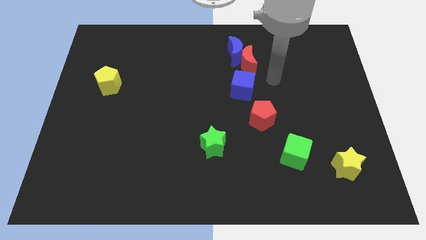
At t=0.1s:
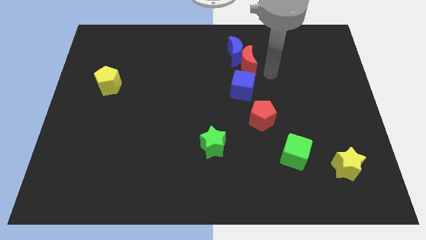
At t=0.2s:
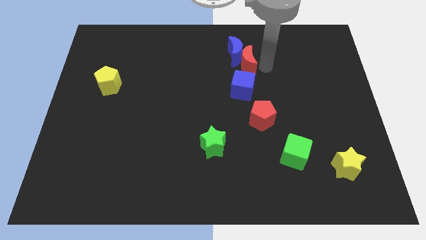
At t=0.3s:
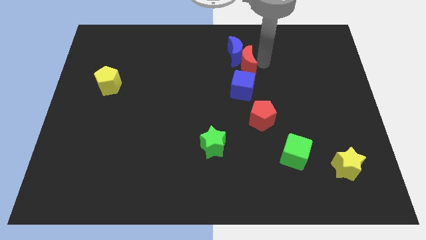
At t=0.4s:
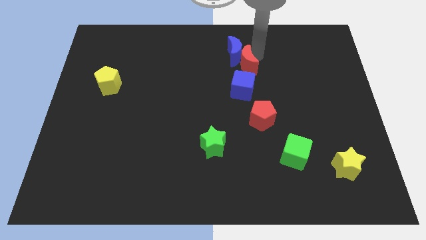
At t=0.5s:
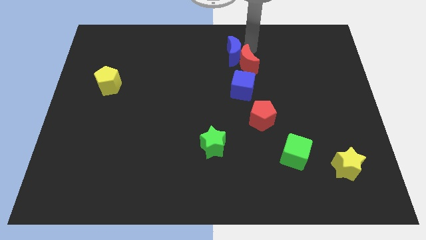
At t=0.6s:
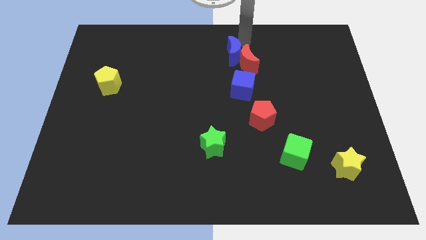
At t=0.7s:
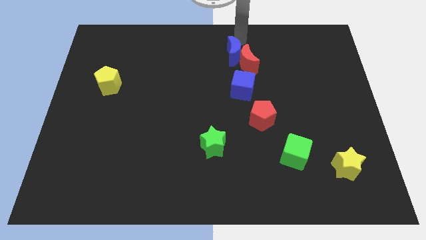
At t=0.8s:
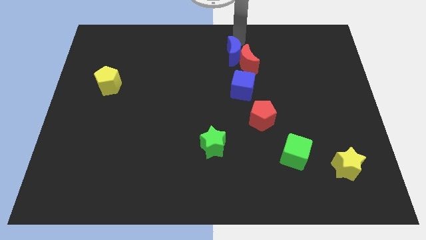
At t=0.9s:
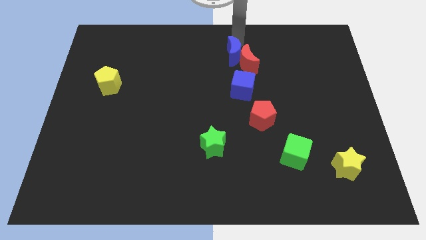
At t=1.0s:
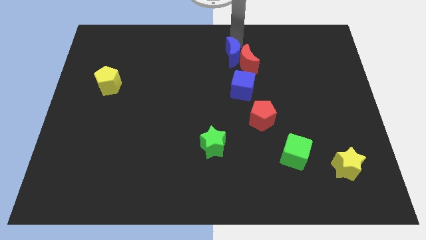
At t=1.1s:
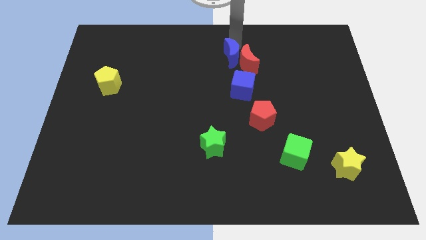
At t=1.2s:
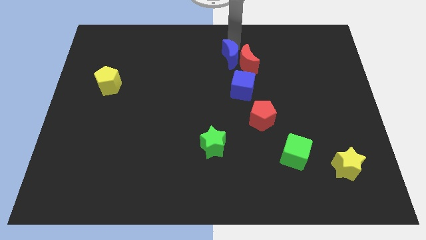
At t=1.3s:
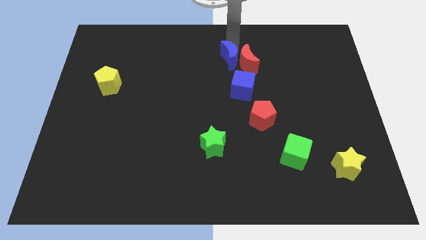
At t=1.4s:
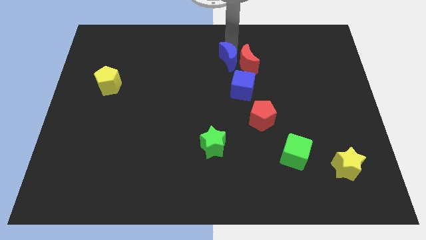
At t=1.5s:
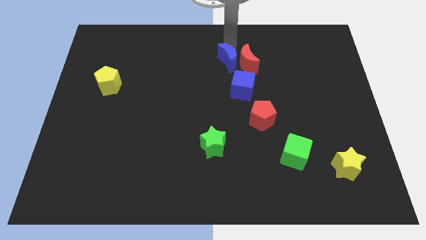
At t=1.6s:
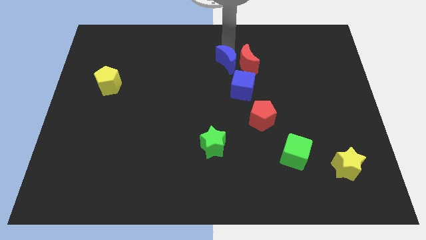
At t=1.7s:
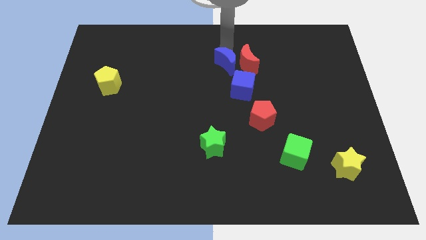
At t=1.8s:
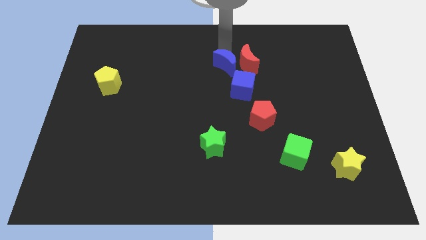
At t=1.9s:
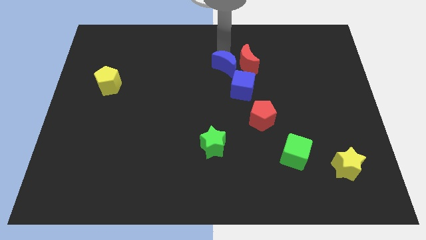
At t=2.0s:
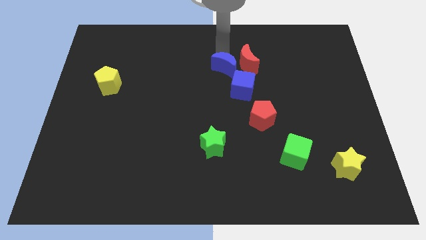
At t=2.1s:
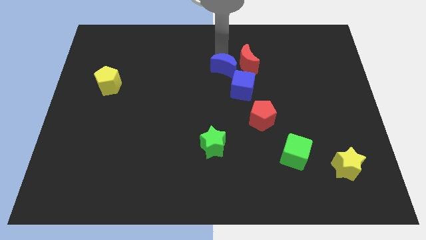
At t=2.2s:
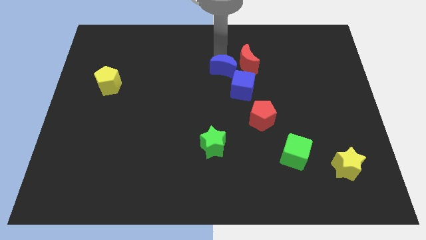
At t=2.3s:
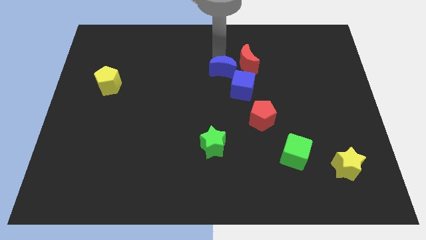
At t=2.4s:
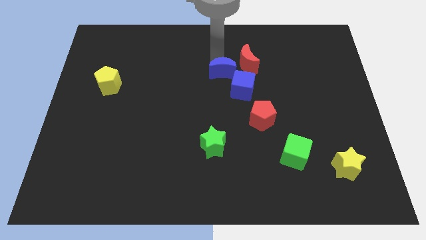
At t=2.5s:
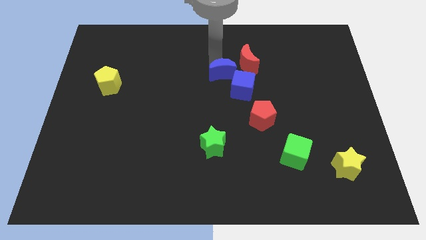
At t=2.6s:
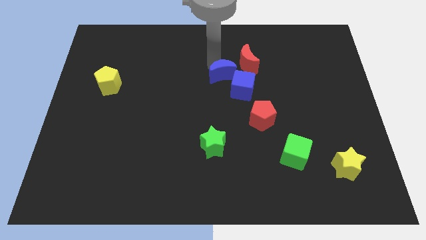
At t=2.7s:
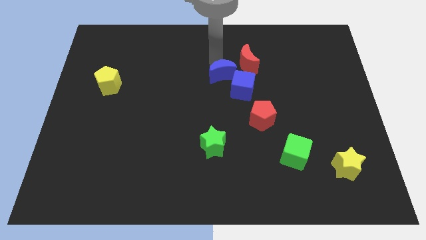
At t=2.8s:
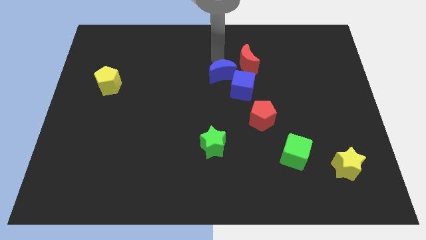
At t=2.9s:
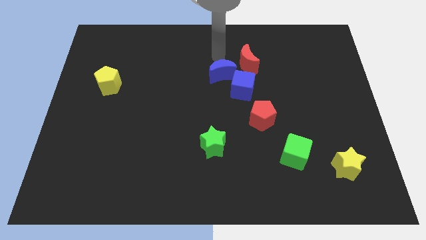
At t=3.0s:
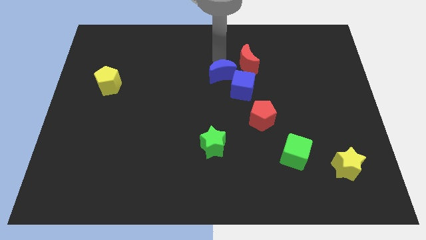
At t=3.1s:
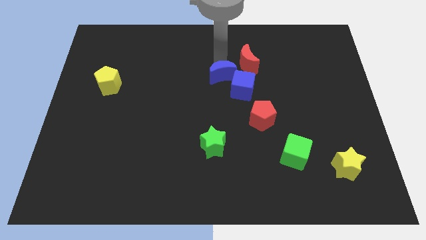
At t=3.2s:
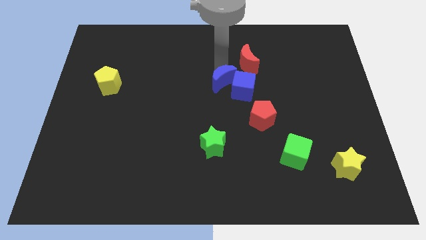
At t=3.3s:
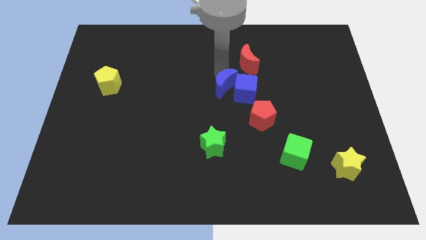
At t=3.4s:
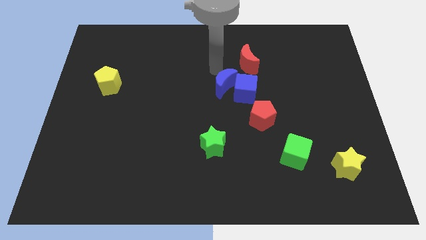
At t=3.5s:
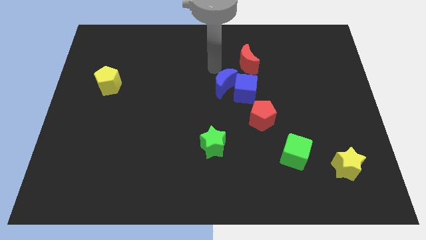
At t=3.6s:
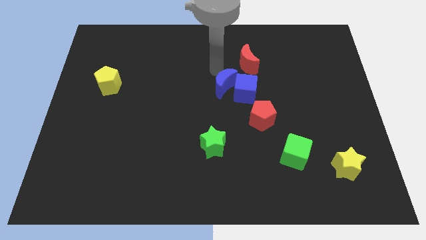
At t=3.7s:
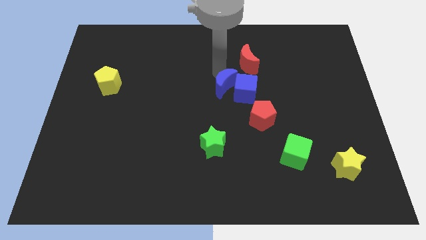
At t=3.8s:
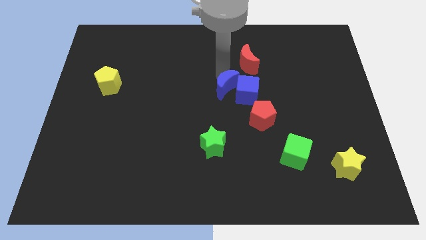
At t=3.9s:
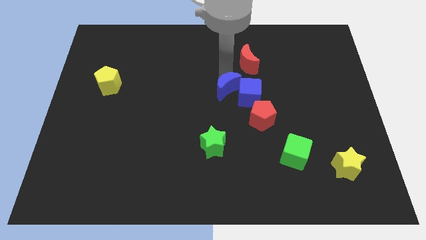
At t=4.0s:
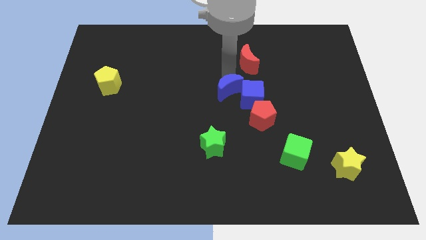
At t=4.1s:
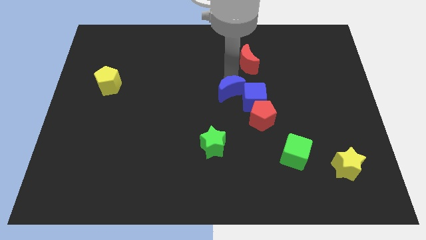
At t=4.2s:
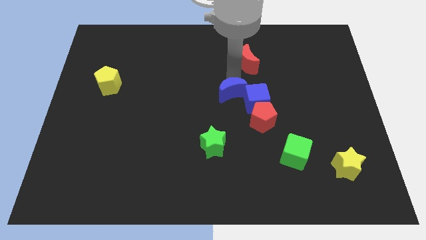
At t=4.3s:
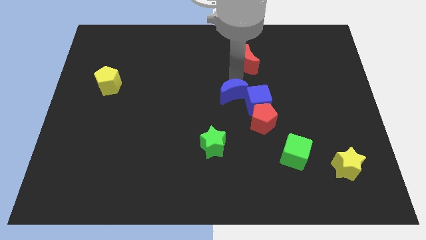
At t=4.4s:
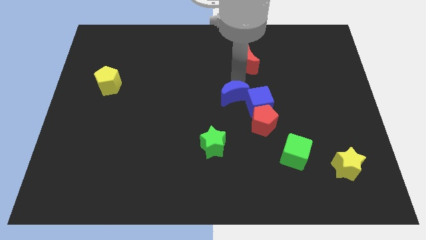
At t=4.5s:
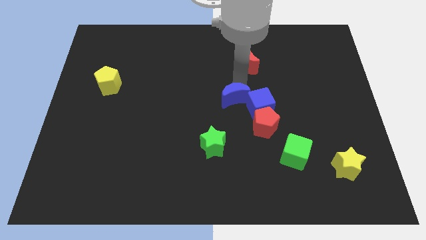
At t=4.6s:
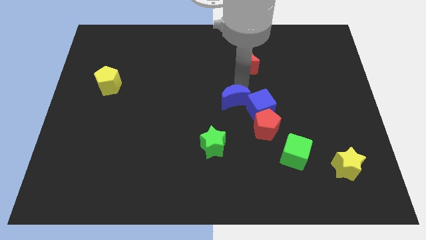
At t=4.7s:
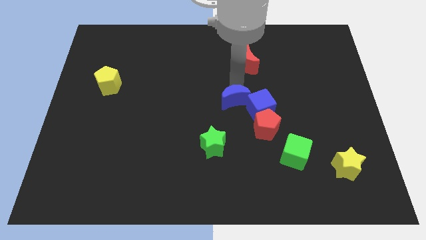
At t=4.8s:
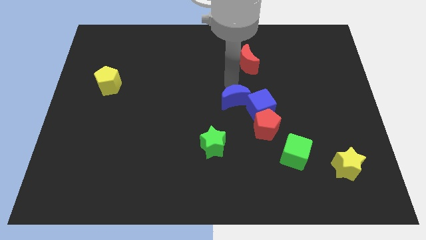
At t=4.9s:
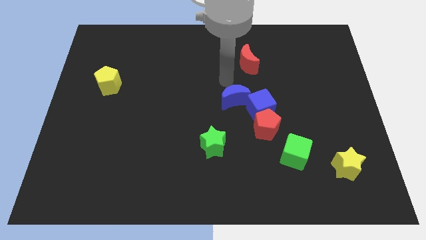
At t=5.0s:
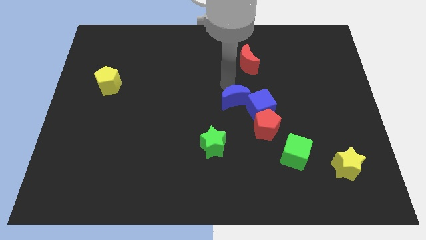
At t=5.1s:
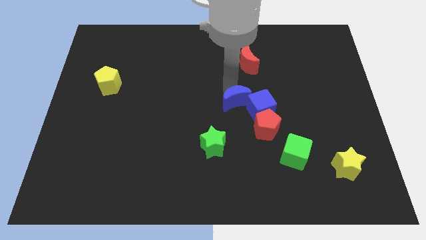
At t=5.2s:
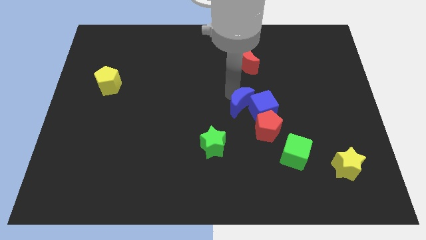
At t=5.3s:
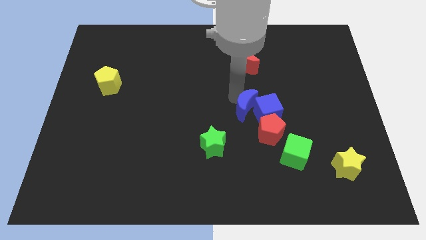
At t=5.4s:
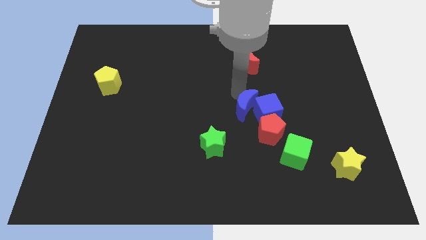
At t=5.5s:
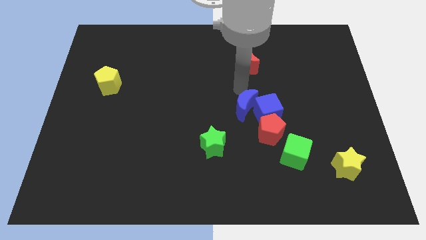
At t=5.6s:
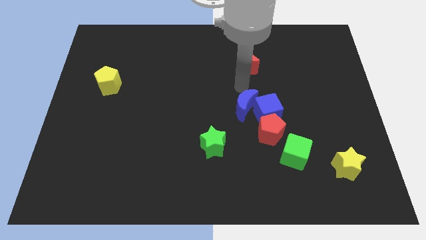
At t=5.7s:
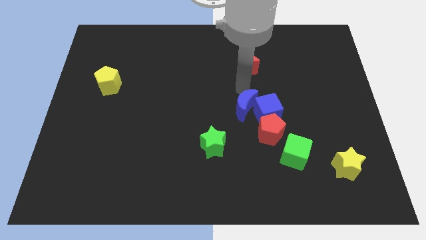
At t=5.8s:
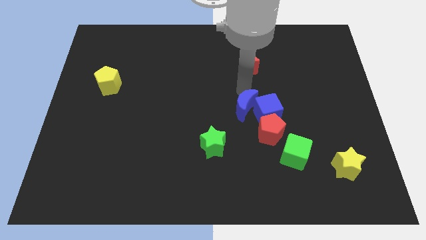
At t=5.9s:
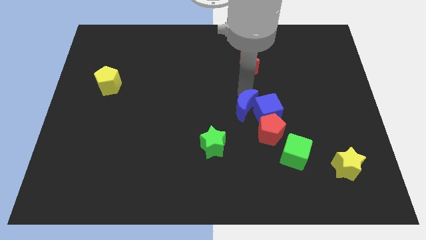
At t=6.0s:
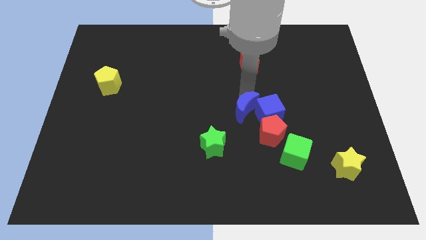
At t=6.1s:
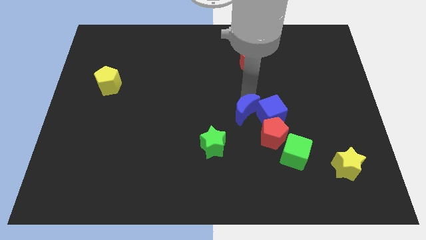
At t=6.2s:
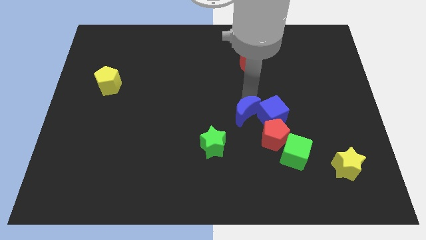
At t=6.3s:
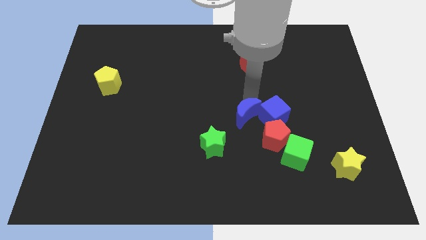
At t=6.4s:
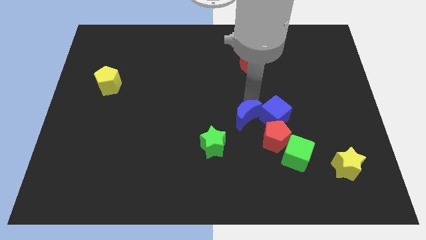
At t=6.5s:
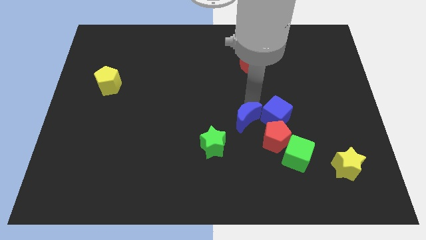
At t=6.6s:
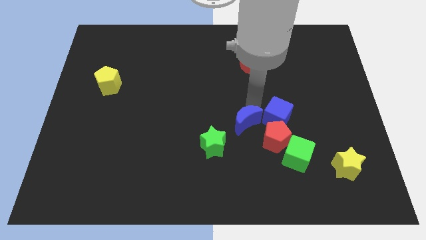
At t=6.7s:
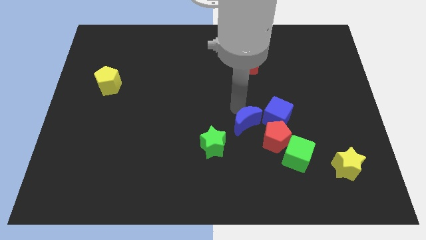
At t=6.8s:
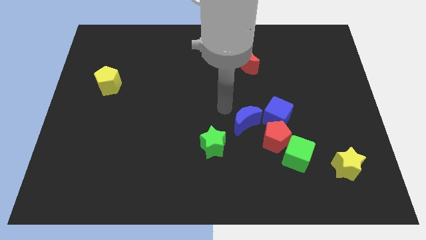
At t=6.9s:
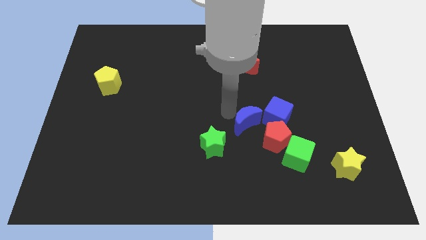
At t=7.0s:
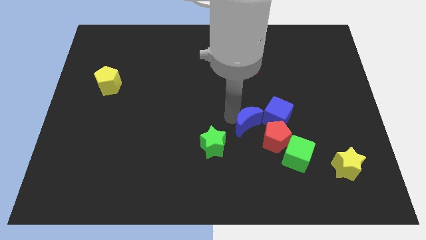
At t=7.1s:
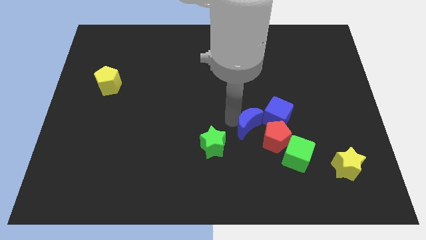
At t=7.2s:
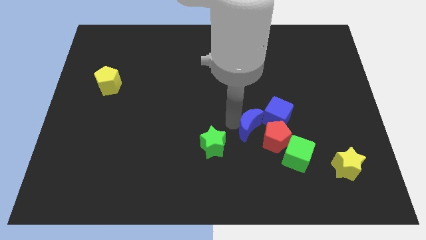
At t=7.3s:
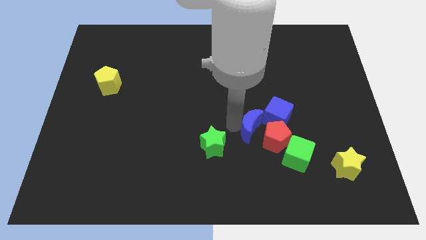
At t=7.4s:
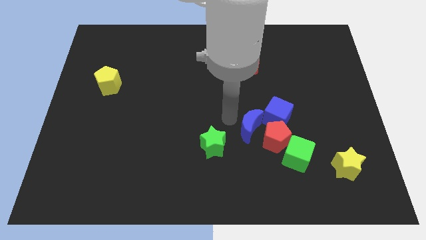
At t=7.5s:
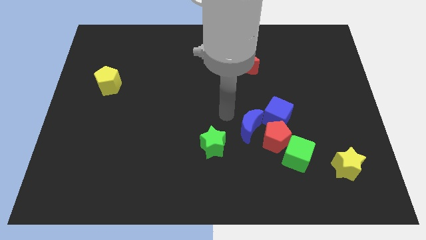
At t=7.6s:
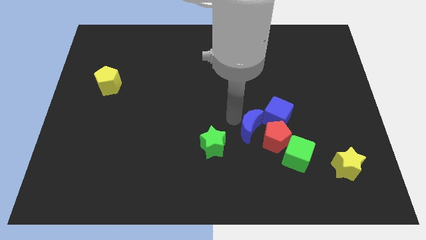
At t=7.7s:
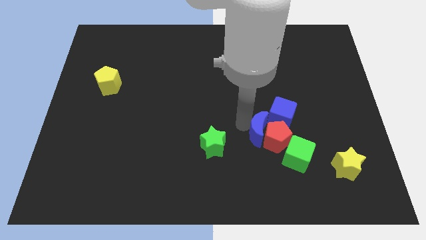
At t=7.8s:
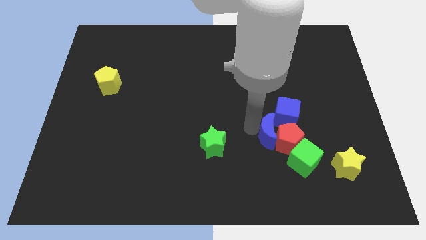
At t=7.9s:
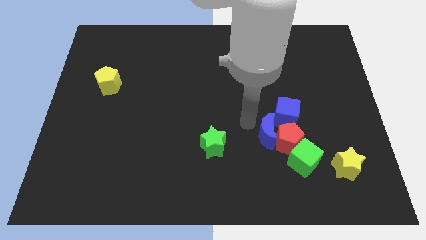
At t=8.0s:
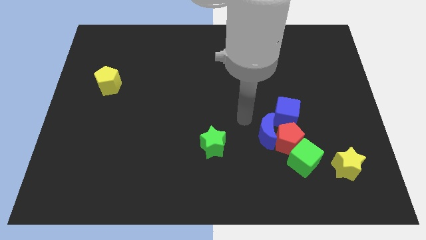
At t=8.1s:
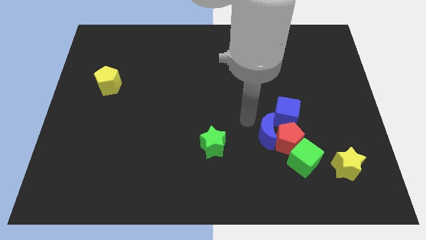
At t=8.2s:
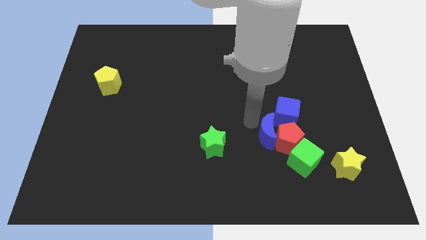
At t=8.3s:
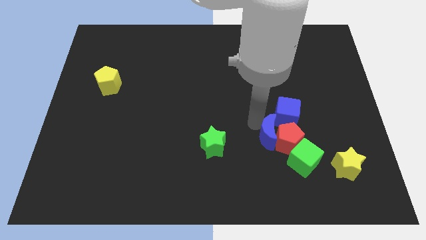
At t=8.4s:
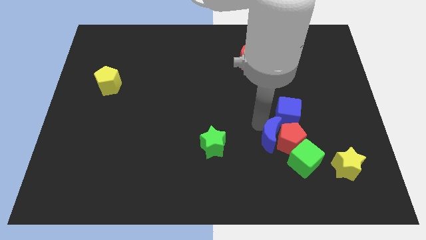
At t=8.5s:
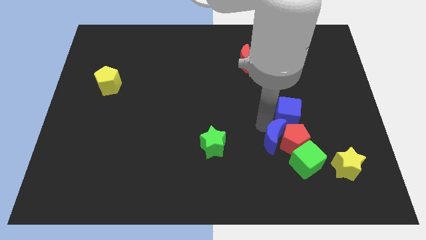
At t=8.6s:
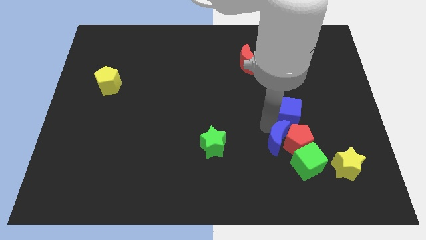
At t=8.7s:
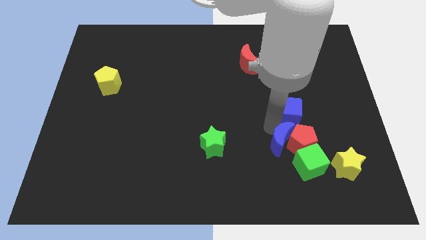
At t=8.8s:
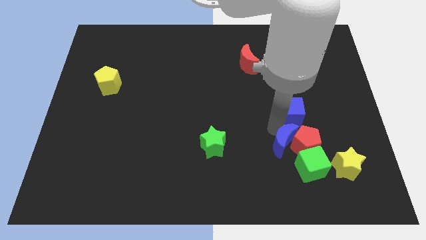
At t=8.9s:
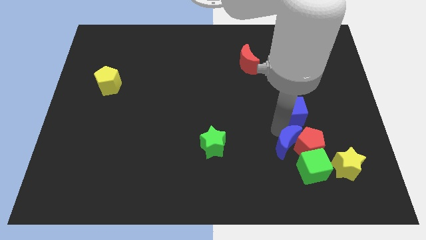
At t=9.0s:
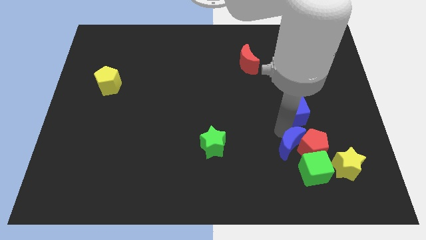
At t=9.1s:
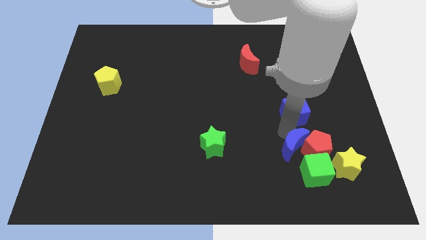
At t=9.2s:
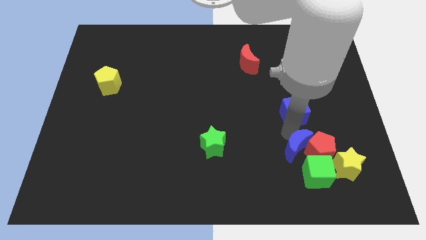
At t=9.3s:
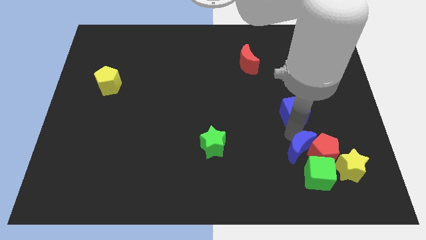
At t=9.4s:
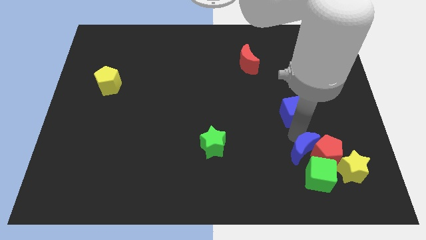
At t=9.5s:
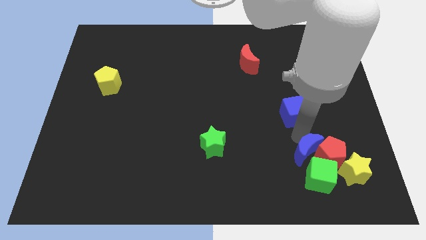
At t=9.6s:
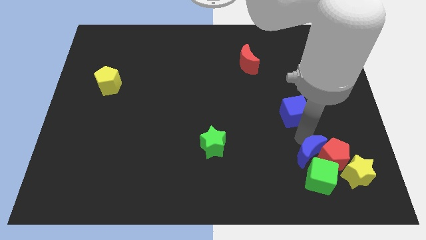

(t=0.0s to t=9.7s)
push the blue moon towards the green cube
